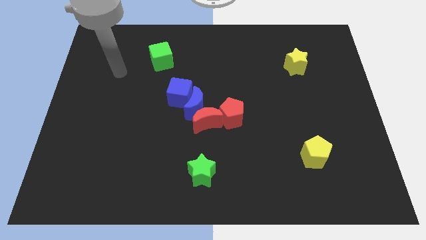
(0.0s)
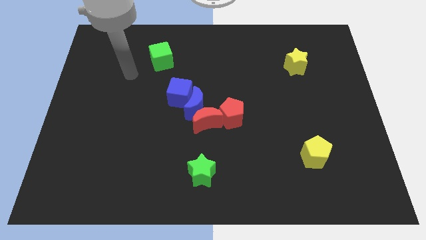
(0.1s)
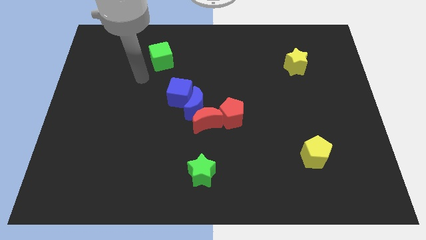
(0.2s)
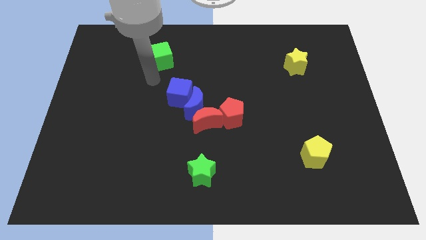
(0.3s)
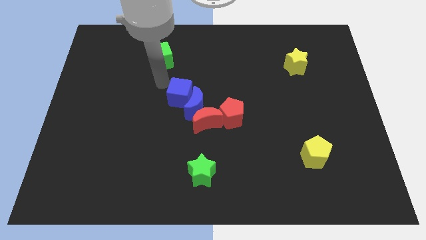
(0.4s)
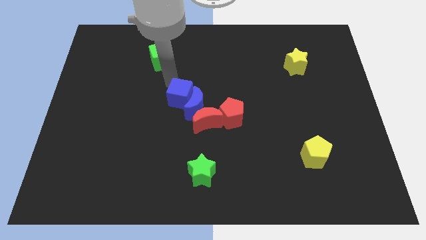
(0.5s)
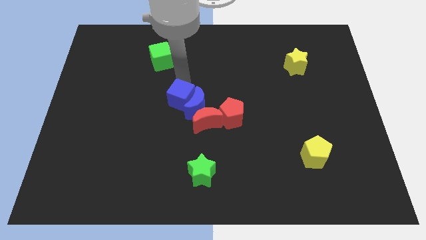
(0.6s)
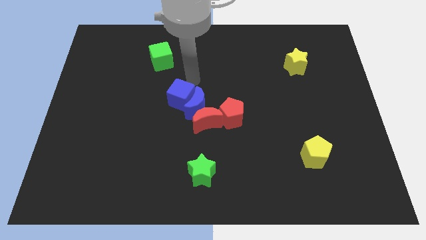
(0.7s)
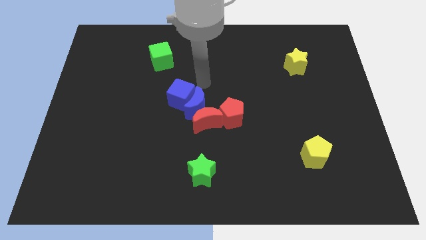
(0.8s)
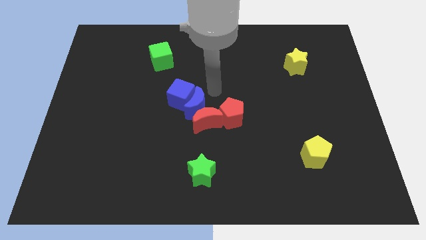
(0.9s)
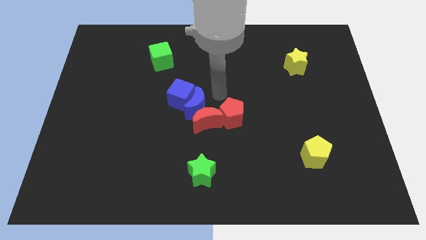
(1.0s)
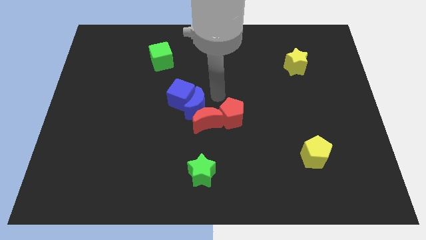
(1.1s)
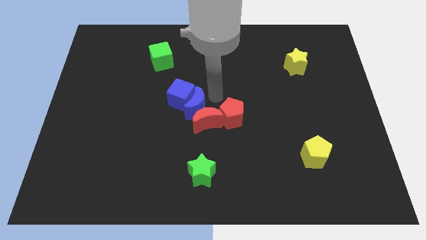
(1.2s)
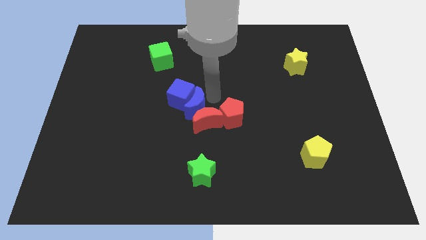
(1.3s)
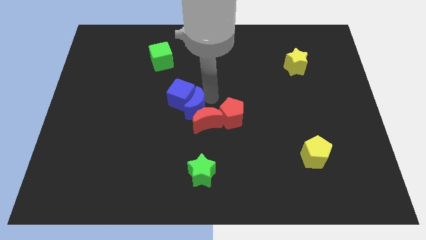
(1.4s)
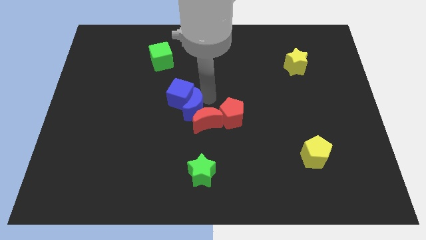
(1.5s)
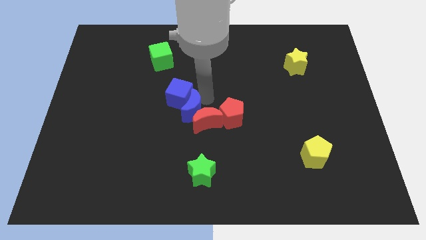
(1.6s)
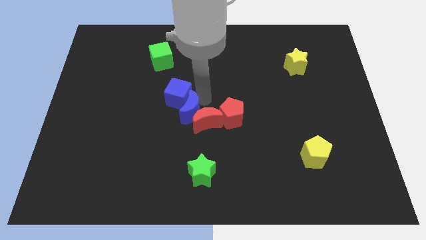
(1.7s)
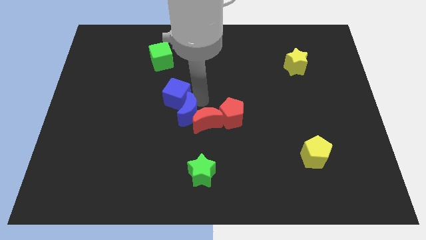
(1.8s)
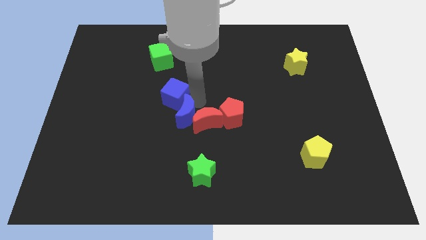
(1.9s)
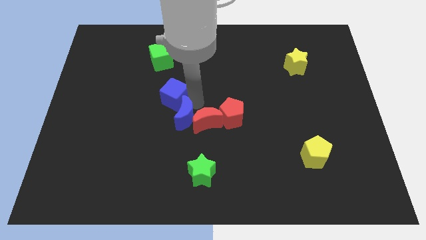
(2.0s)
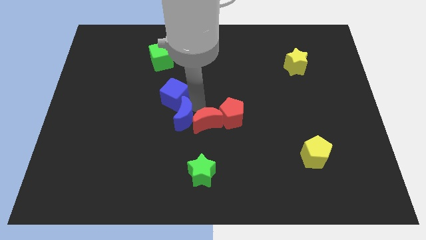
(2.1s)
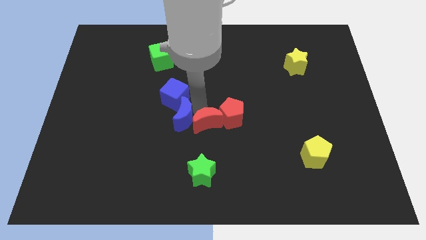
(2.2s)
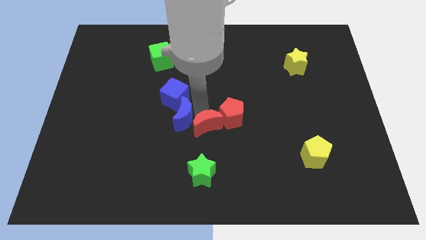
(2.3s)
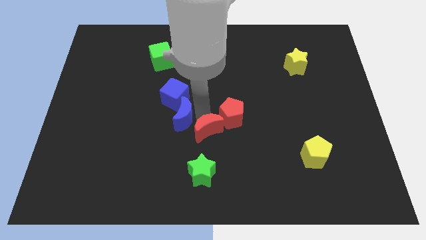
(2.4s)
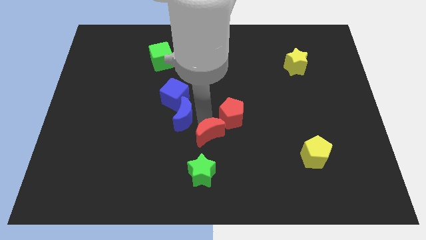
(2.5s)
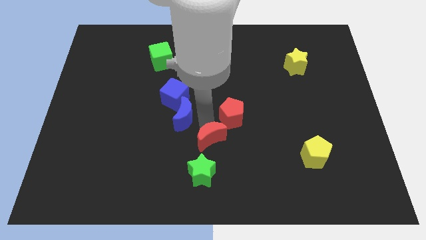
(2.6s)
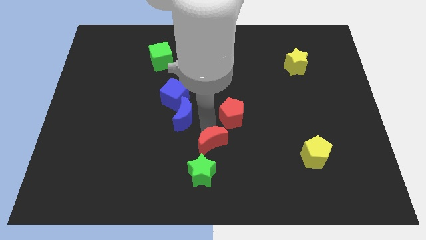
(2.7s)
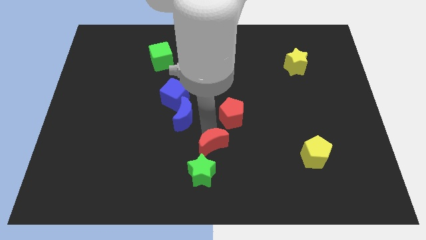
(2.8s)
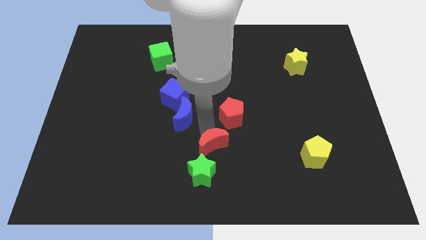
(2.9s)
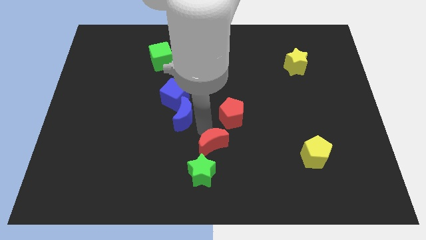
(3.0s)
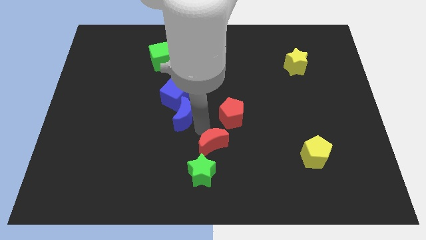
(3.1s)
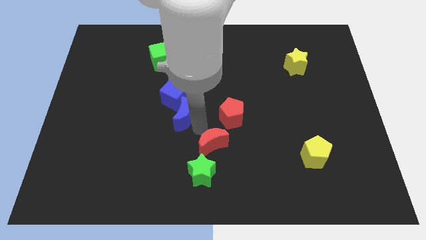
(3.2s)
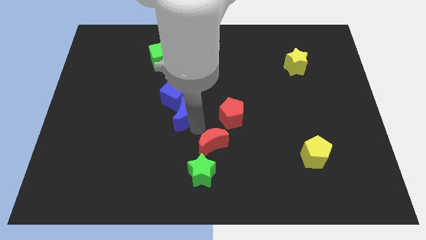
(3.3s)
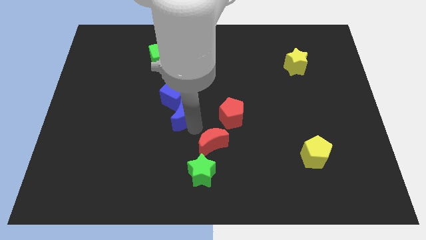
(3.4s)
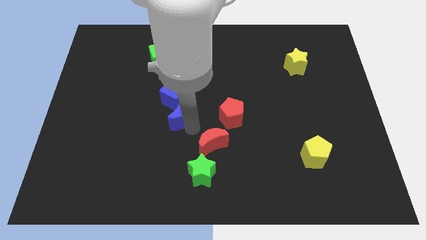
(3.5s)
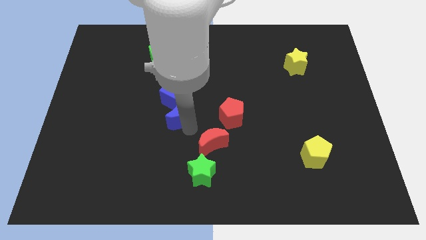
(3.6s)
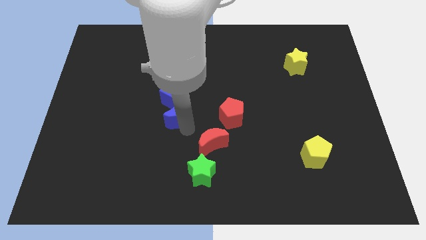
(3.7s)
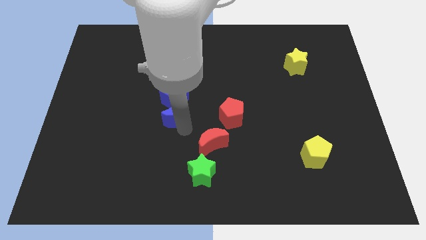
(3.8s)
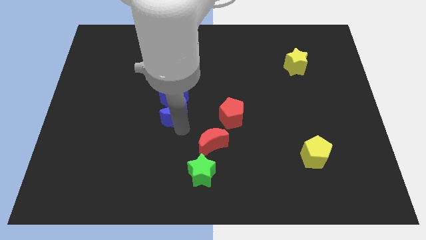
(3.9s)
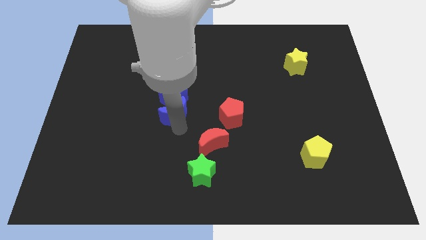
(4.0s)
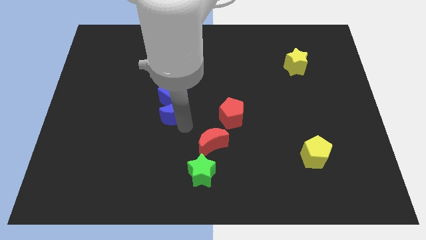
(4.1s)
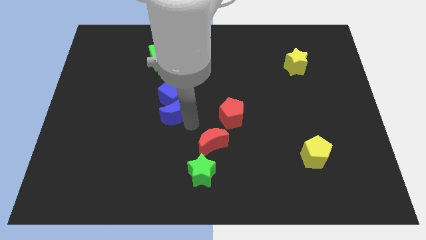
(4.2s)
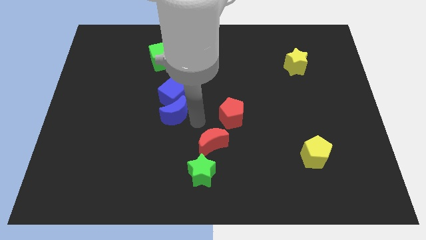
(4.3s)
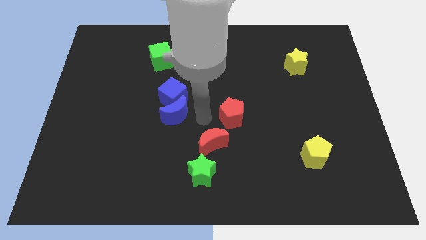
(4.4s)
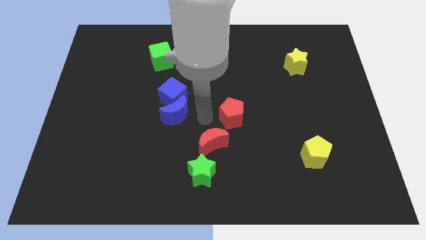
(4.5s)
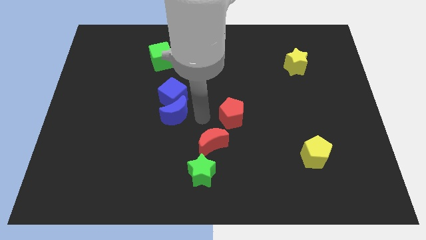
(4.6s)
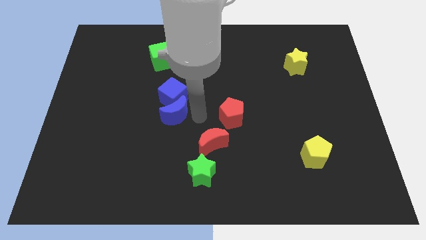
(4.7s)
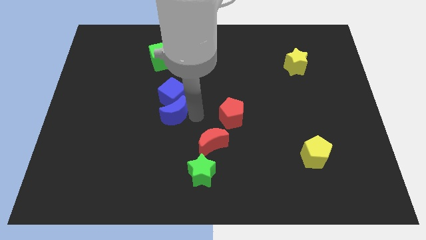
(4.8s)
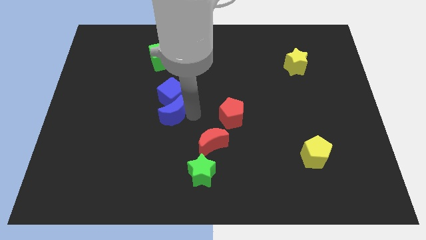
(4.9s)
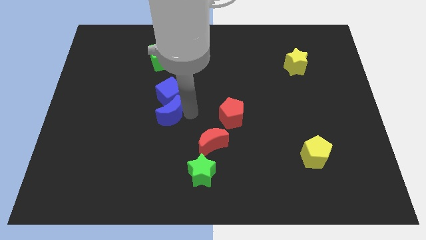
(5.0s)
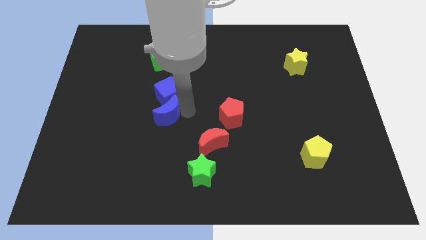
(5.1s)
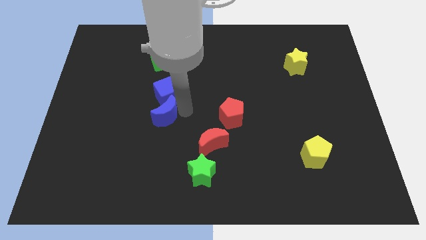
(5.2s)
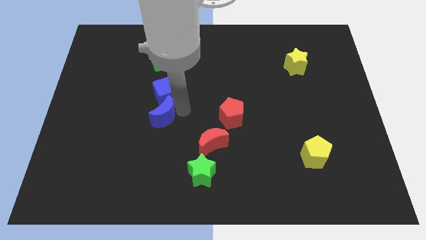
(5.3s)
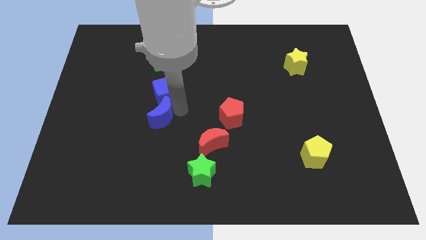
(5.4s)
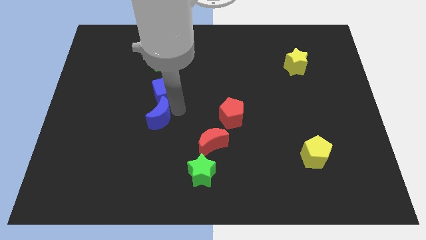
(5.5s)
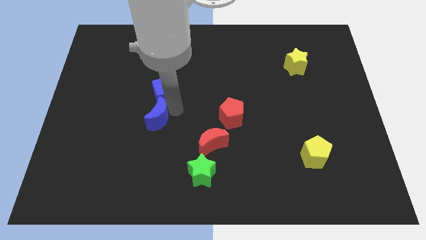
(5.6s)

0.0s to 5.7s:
separate the blue moon from the red moon, blue cube, and red pentagon

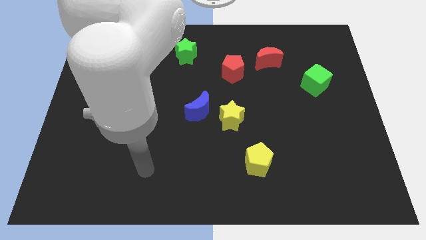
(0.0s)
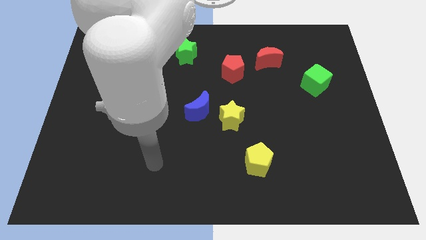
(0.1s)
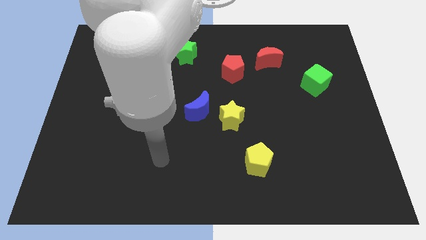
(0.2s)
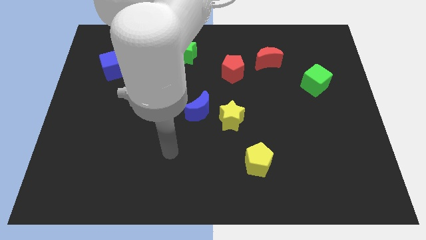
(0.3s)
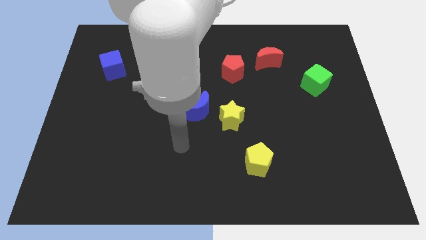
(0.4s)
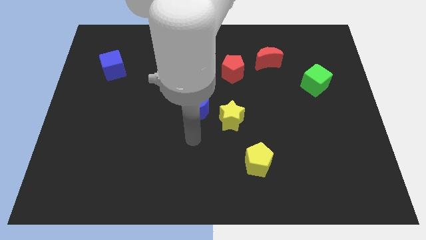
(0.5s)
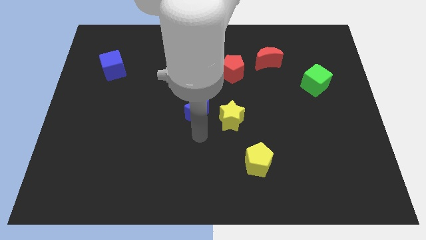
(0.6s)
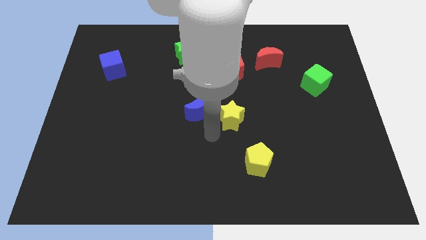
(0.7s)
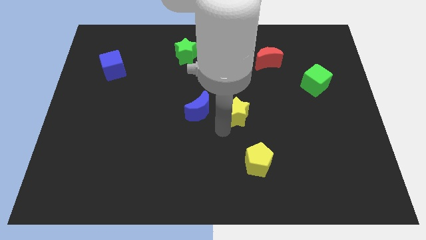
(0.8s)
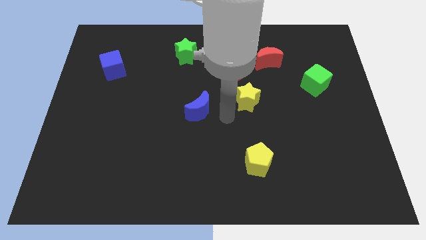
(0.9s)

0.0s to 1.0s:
move the blue moon away from the yellow star

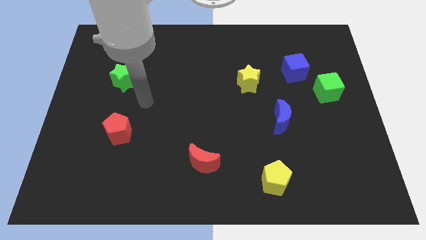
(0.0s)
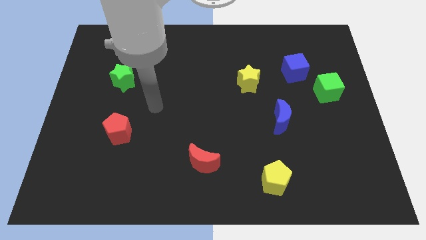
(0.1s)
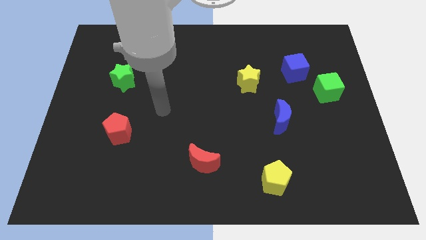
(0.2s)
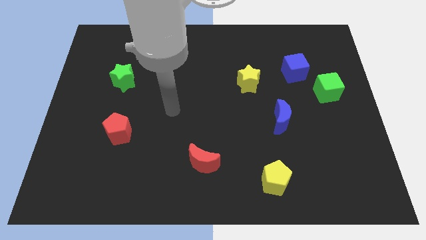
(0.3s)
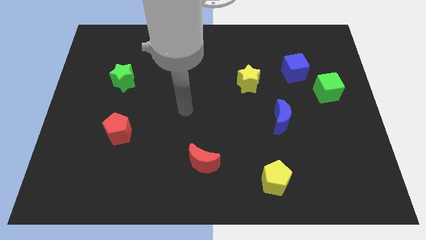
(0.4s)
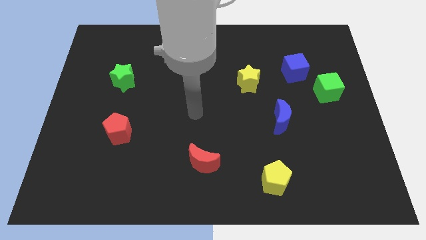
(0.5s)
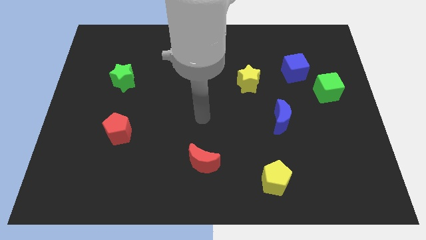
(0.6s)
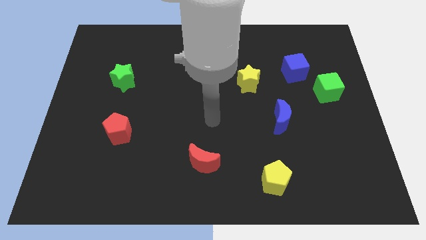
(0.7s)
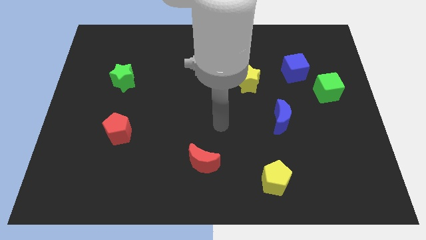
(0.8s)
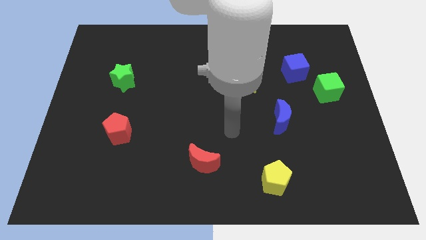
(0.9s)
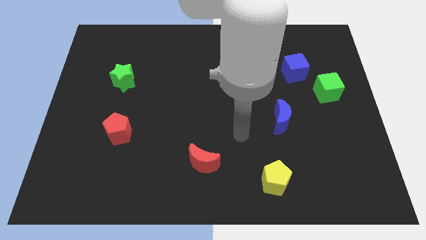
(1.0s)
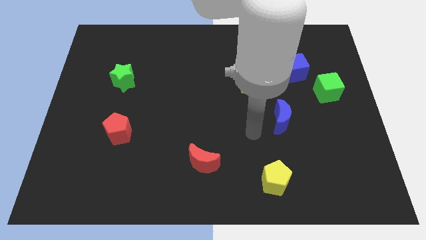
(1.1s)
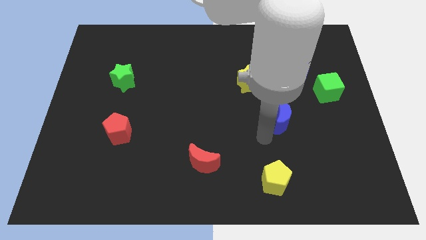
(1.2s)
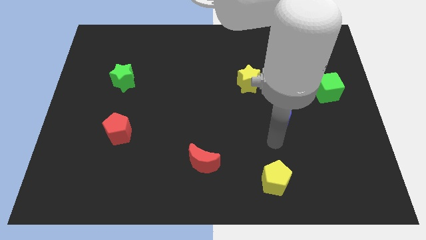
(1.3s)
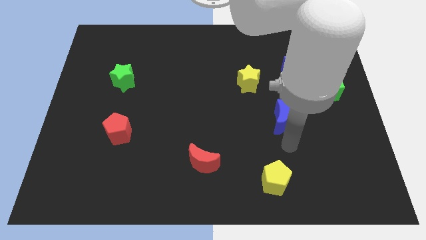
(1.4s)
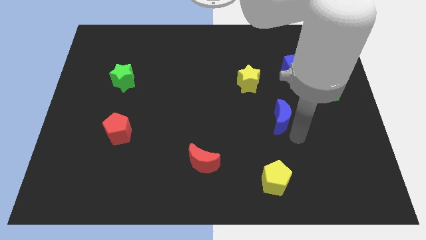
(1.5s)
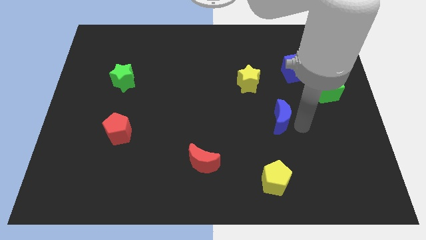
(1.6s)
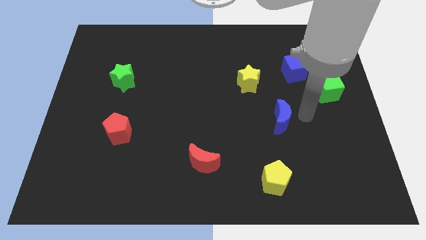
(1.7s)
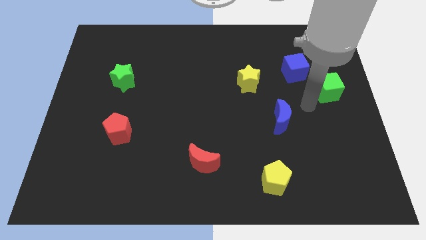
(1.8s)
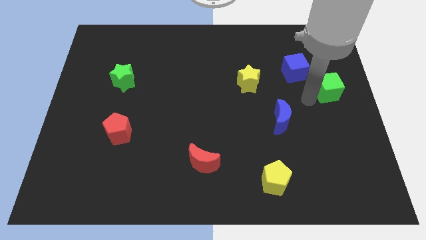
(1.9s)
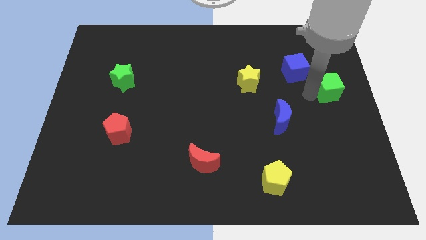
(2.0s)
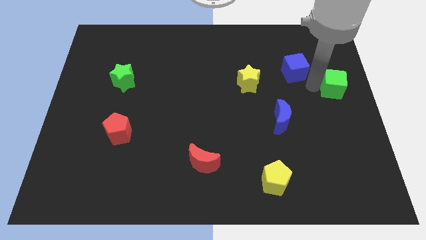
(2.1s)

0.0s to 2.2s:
separate the blue cube from the green cube

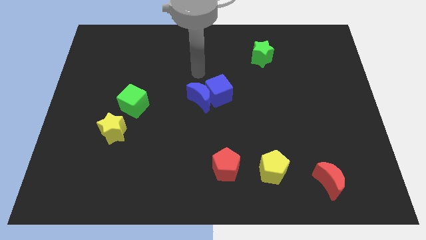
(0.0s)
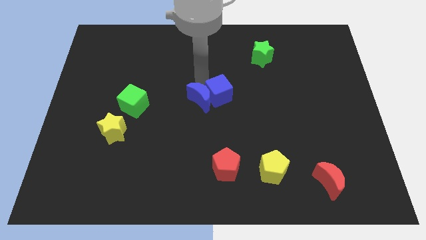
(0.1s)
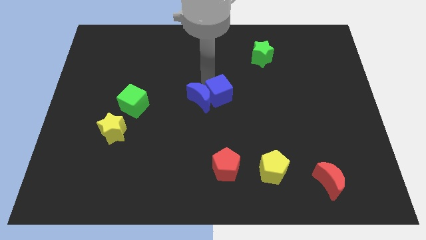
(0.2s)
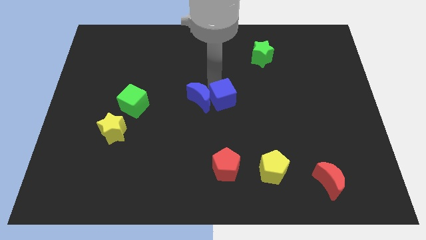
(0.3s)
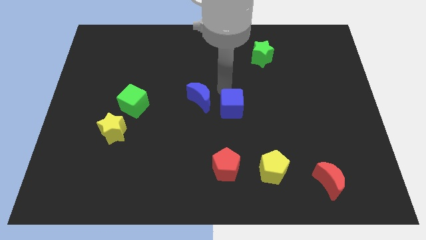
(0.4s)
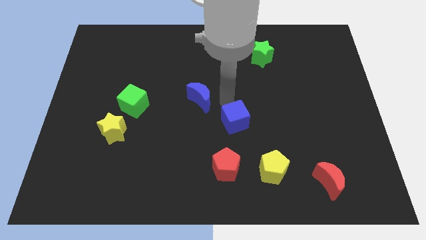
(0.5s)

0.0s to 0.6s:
separate the blue moon from the blue cube
